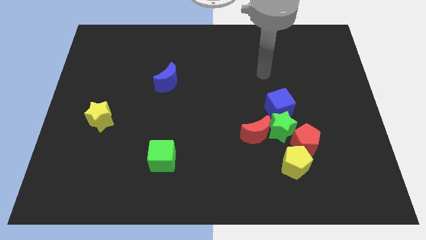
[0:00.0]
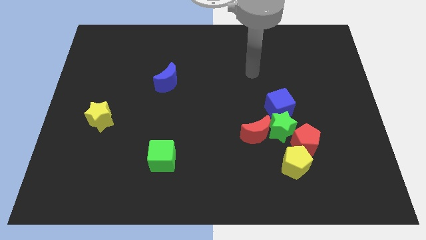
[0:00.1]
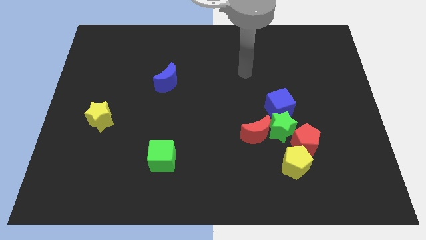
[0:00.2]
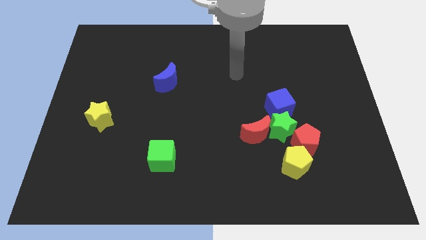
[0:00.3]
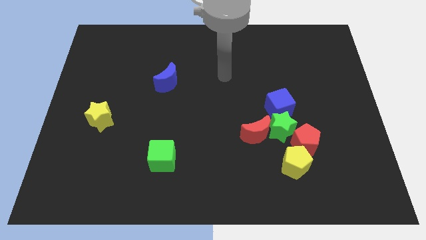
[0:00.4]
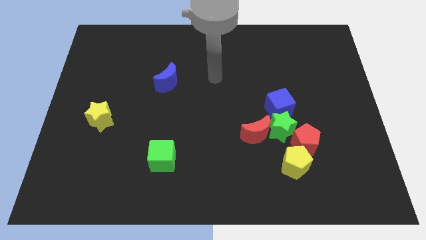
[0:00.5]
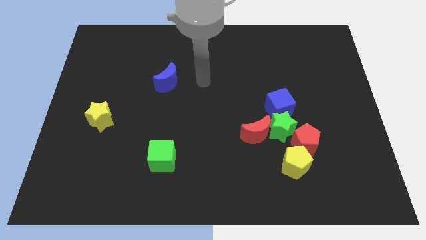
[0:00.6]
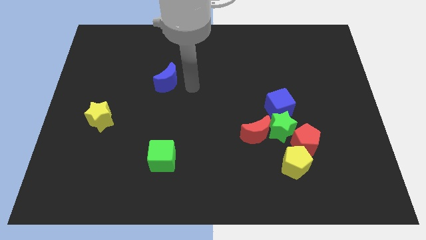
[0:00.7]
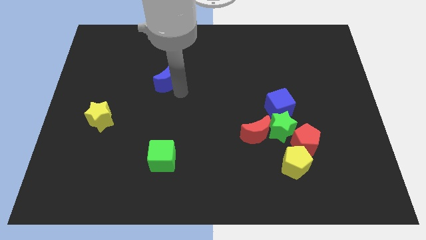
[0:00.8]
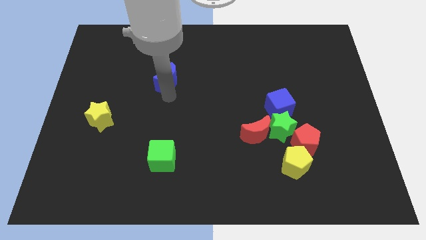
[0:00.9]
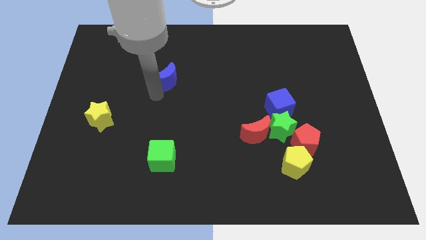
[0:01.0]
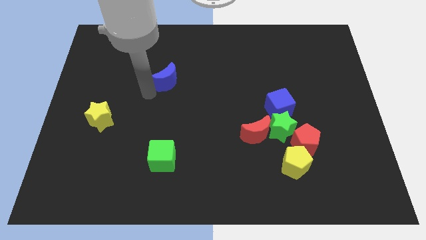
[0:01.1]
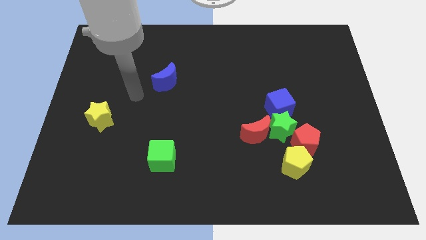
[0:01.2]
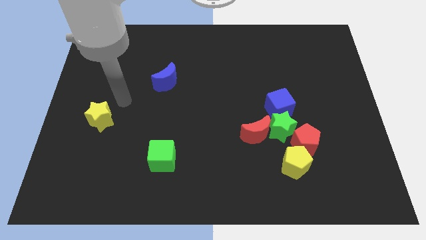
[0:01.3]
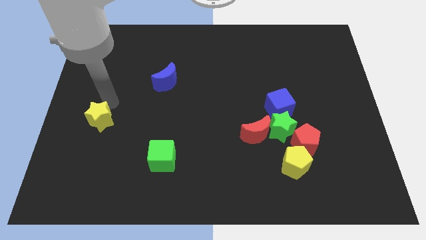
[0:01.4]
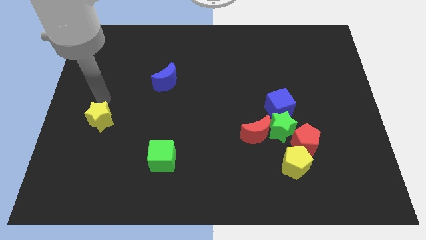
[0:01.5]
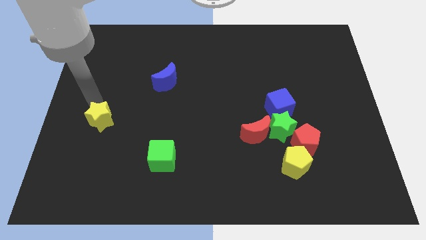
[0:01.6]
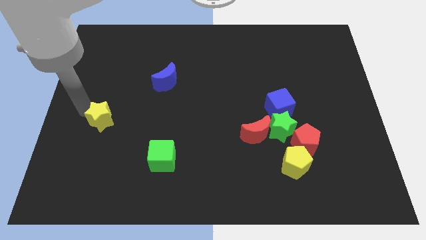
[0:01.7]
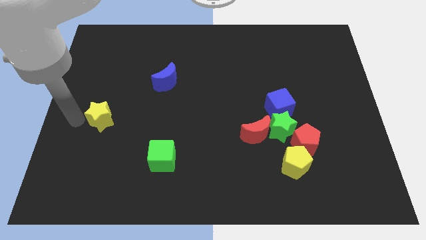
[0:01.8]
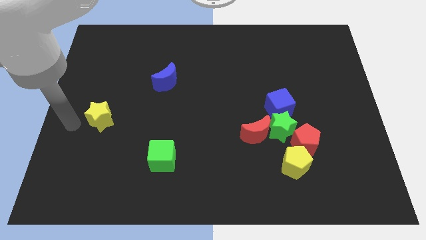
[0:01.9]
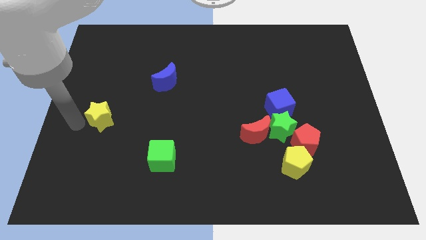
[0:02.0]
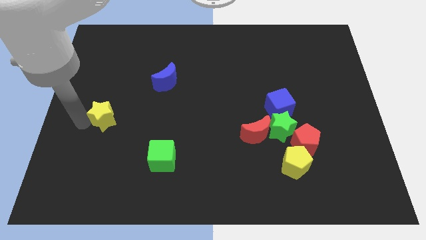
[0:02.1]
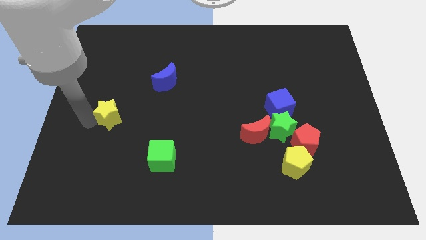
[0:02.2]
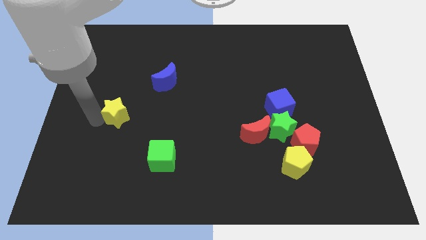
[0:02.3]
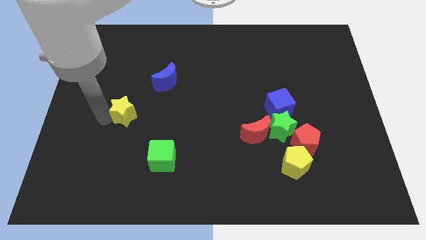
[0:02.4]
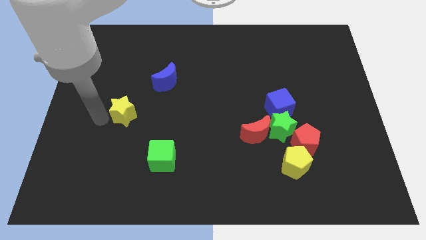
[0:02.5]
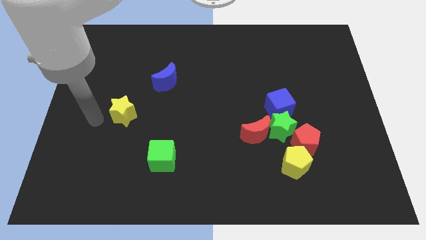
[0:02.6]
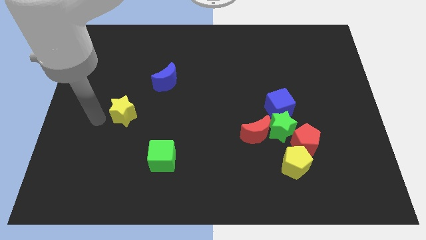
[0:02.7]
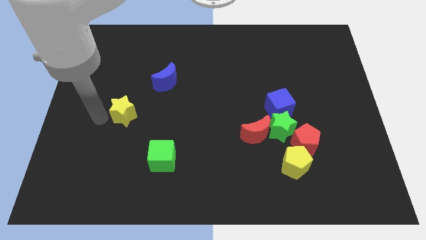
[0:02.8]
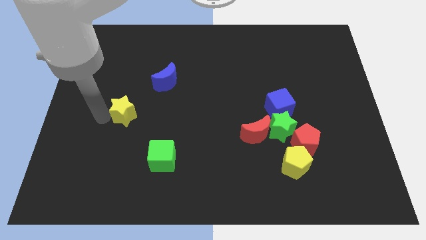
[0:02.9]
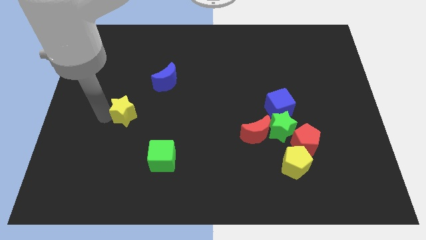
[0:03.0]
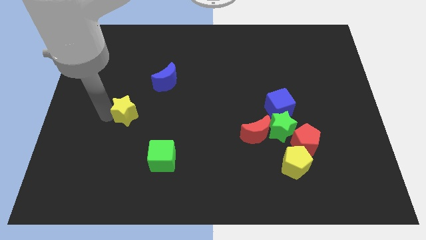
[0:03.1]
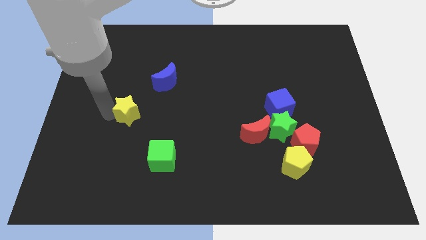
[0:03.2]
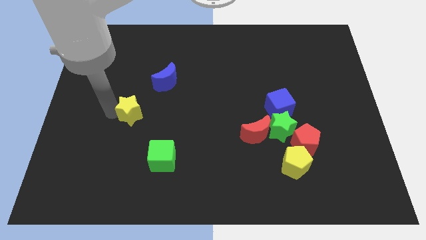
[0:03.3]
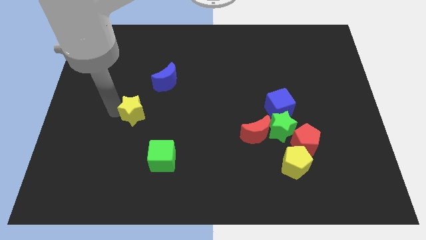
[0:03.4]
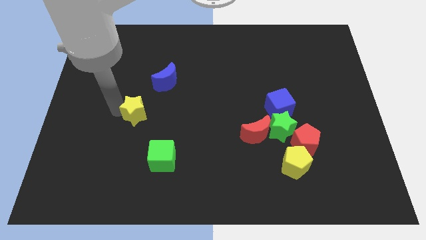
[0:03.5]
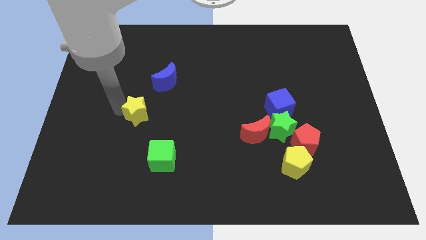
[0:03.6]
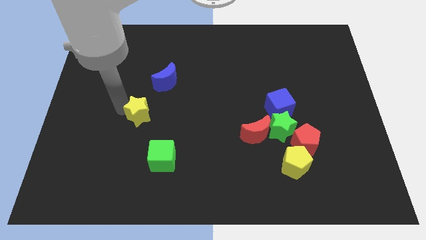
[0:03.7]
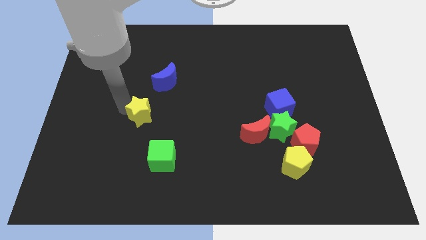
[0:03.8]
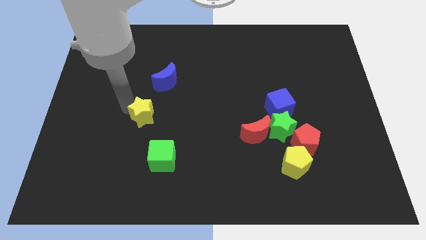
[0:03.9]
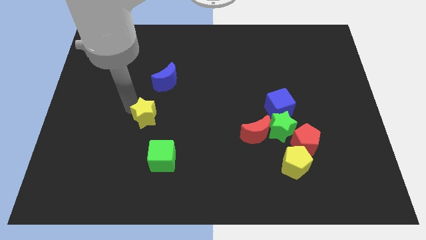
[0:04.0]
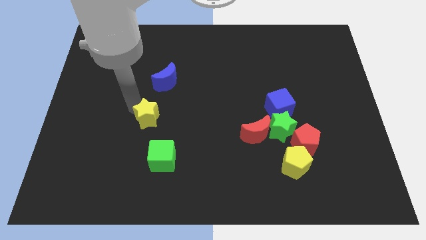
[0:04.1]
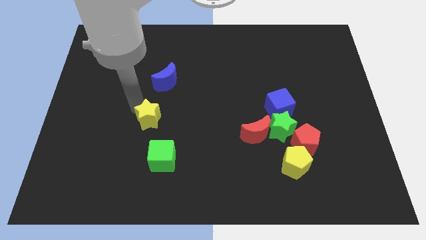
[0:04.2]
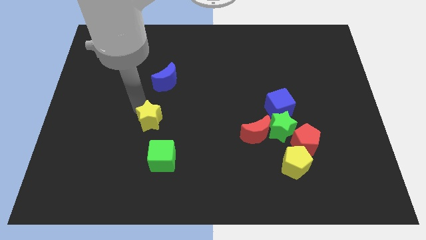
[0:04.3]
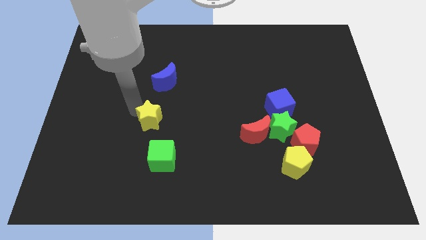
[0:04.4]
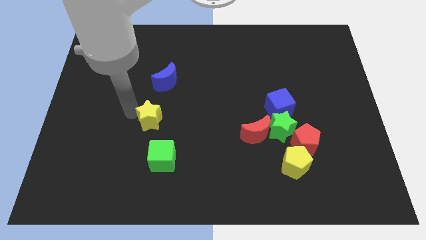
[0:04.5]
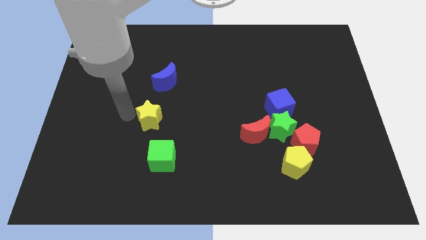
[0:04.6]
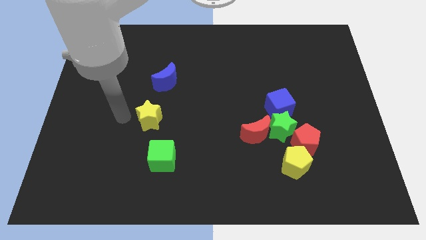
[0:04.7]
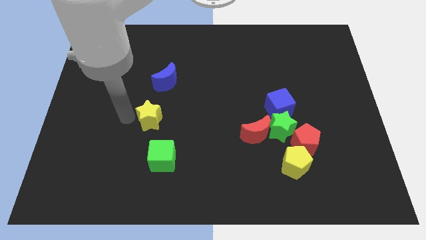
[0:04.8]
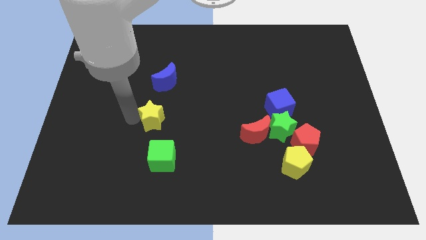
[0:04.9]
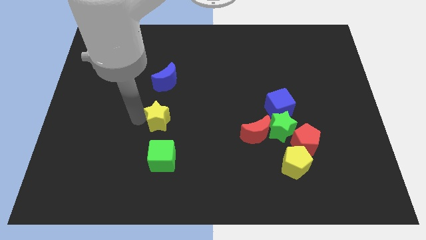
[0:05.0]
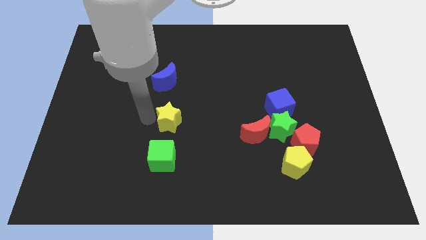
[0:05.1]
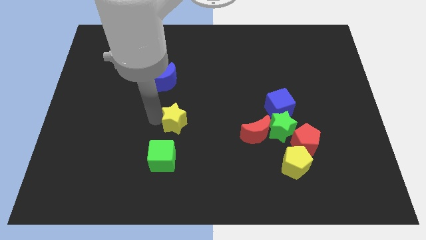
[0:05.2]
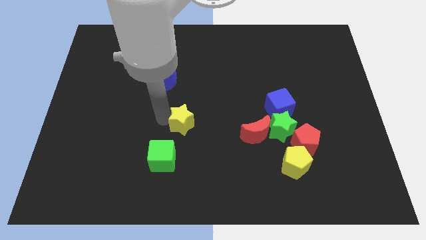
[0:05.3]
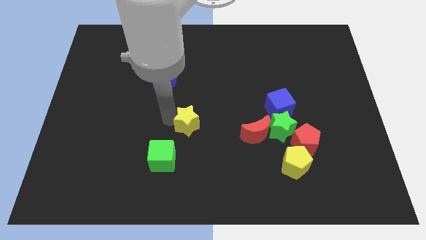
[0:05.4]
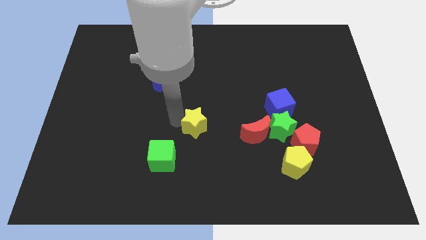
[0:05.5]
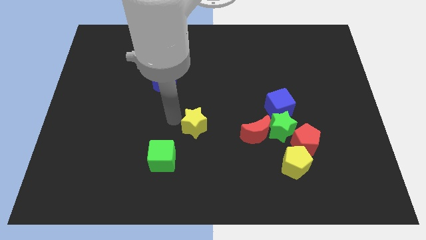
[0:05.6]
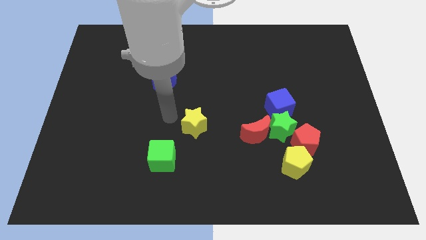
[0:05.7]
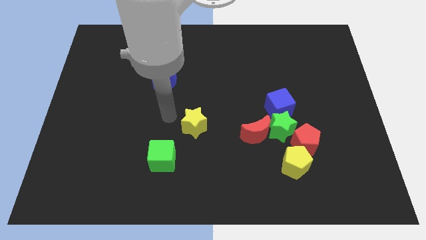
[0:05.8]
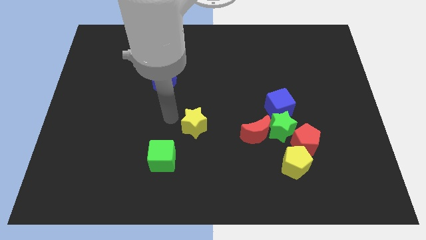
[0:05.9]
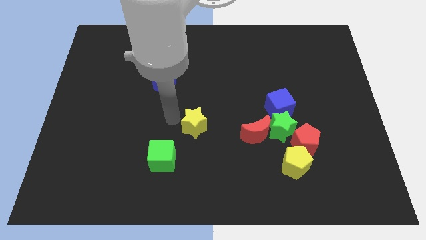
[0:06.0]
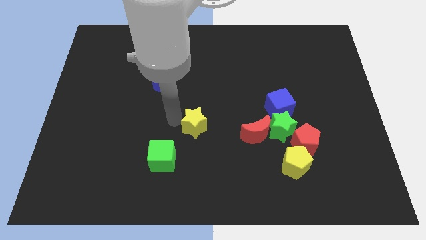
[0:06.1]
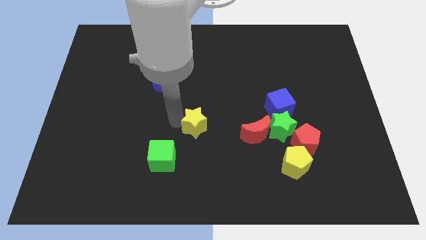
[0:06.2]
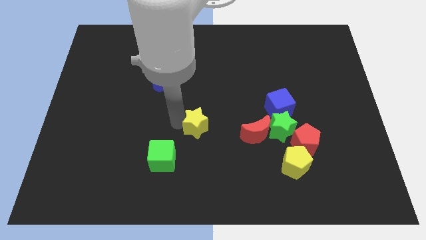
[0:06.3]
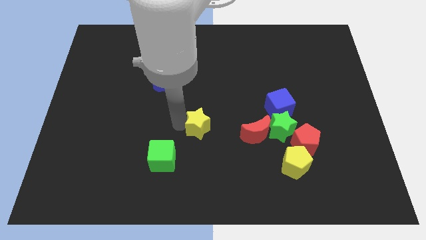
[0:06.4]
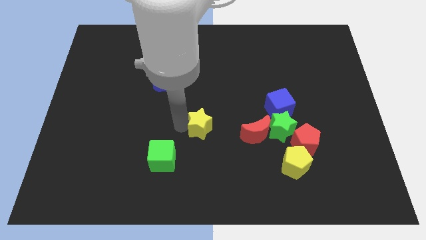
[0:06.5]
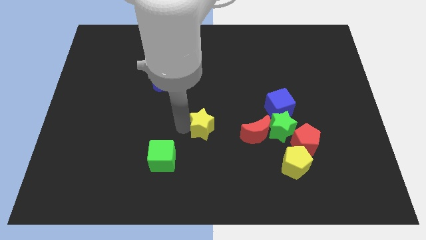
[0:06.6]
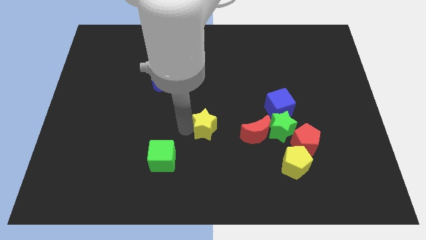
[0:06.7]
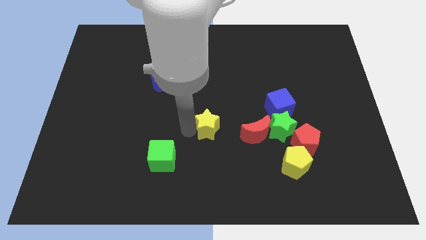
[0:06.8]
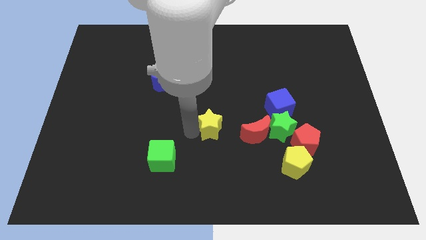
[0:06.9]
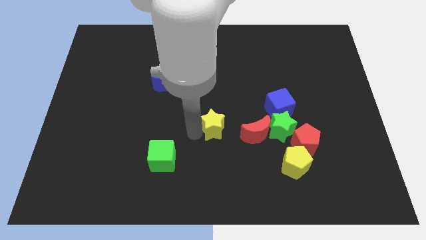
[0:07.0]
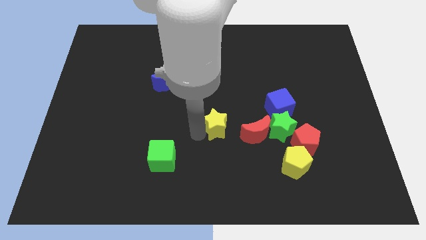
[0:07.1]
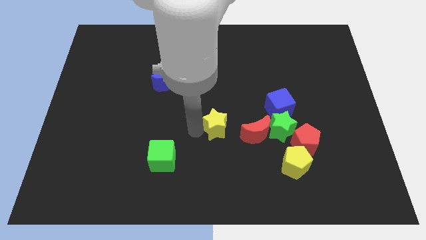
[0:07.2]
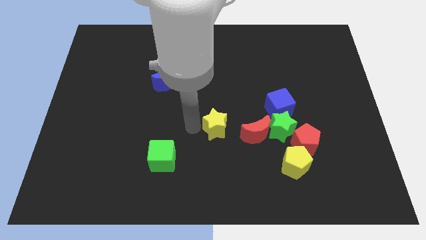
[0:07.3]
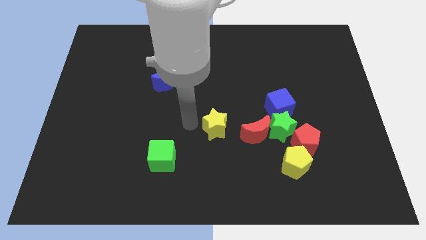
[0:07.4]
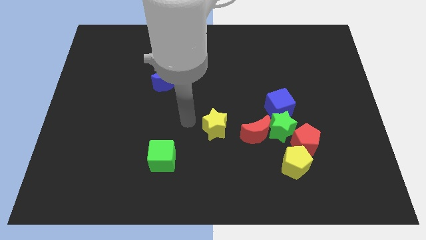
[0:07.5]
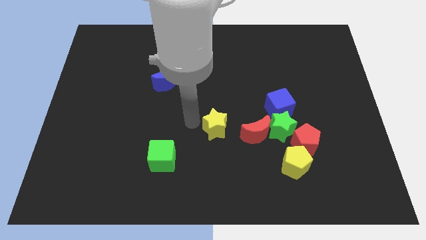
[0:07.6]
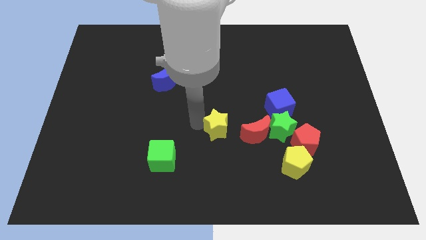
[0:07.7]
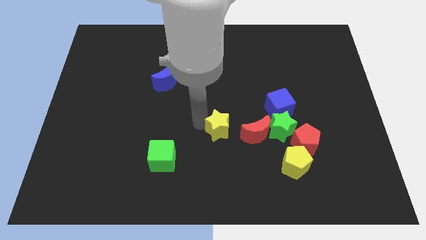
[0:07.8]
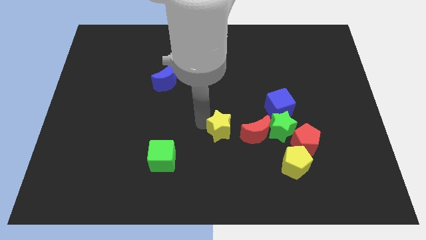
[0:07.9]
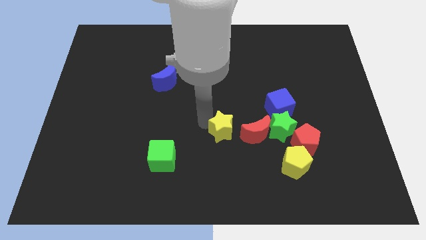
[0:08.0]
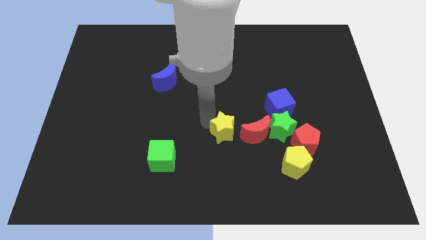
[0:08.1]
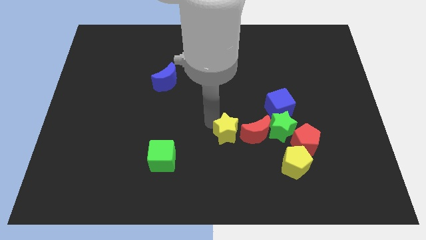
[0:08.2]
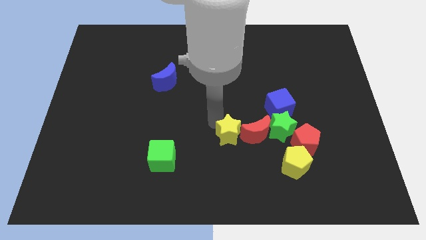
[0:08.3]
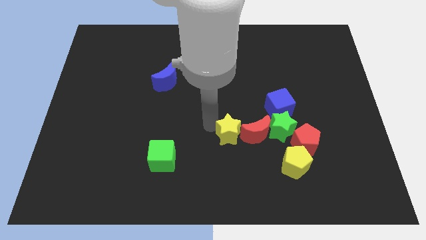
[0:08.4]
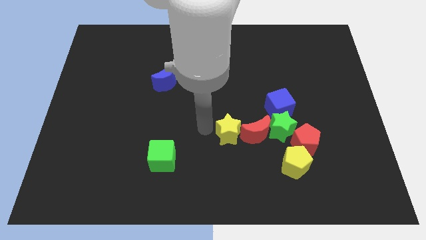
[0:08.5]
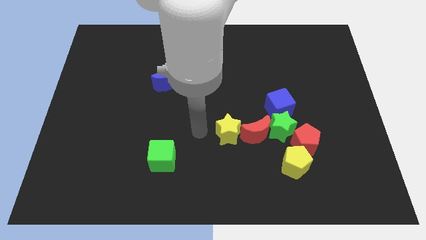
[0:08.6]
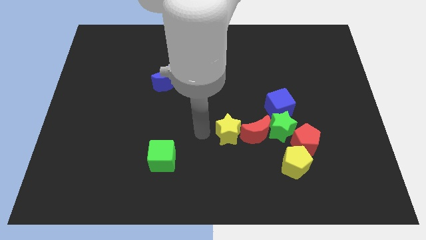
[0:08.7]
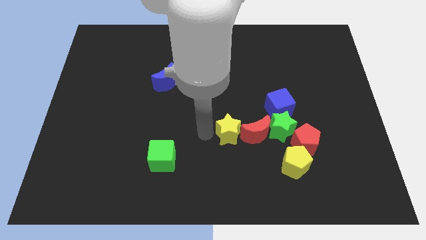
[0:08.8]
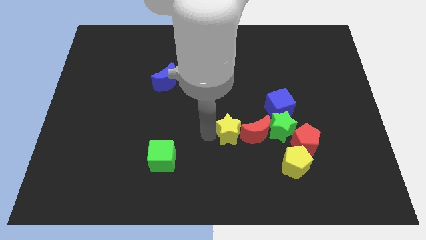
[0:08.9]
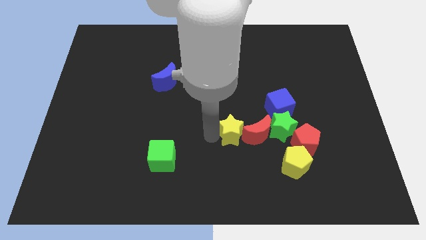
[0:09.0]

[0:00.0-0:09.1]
put the yellow star close to the red moon
